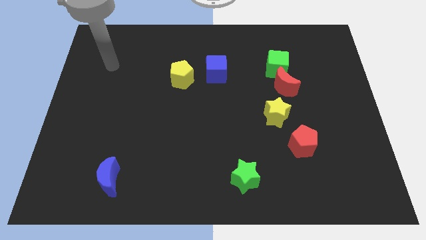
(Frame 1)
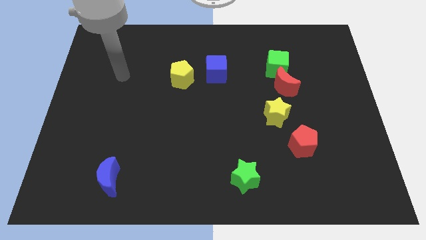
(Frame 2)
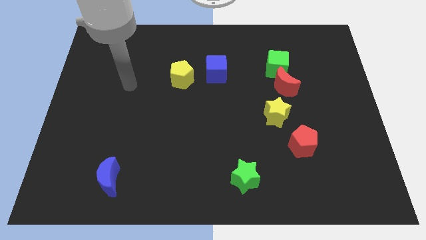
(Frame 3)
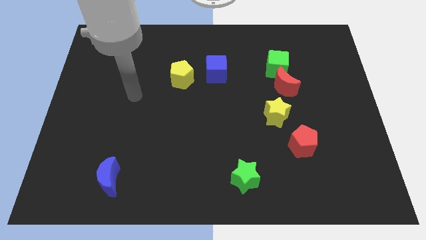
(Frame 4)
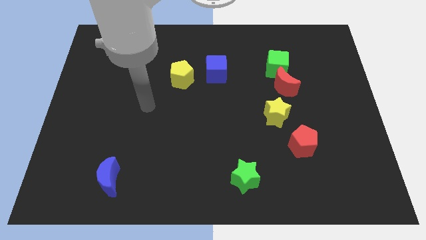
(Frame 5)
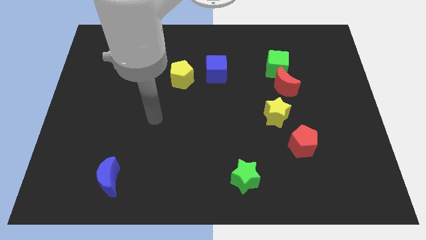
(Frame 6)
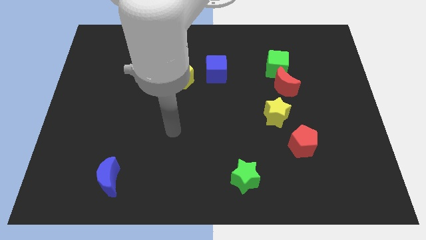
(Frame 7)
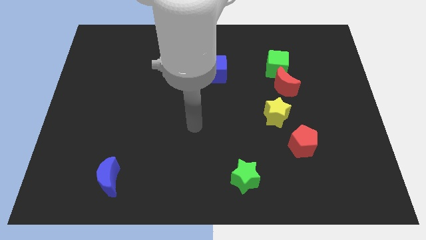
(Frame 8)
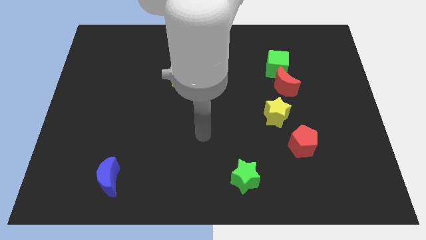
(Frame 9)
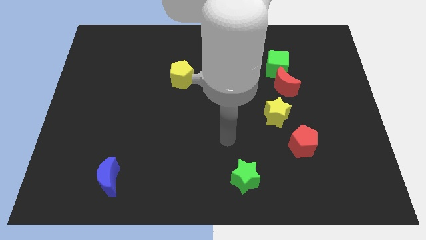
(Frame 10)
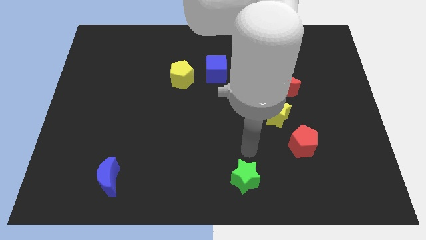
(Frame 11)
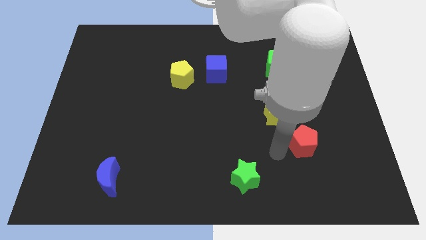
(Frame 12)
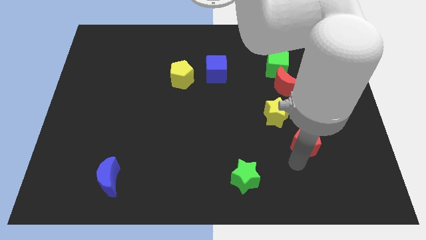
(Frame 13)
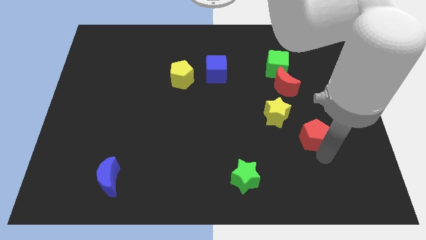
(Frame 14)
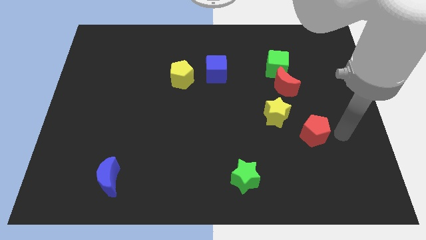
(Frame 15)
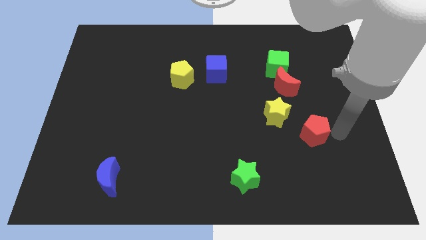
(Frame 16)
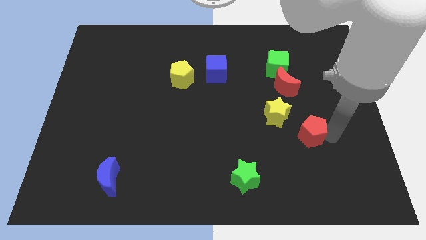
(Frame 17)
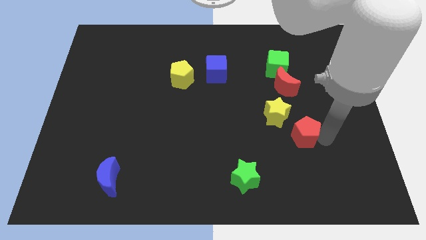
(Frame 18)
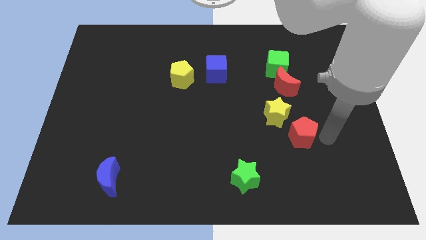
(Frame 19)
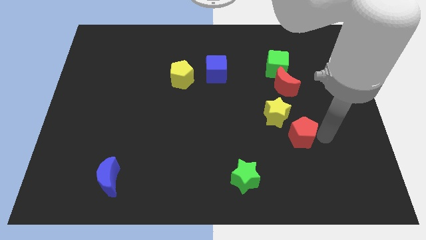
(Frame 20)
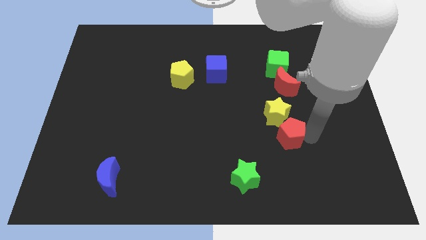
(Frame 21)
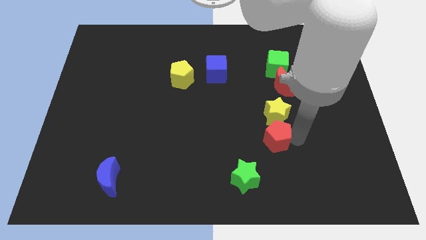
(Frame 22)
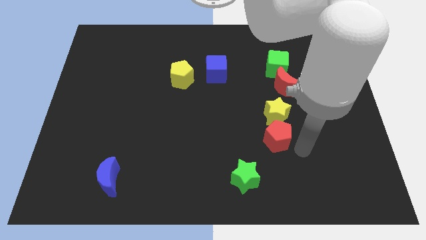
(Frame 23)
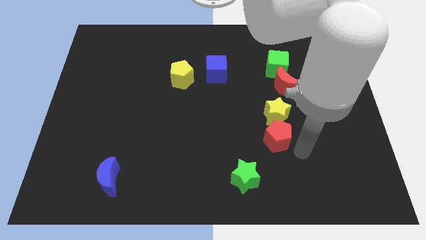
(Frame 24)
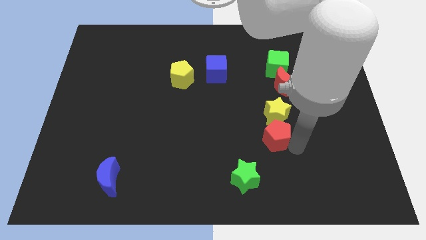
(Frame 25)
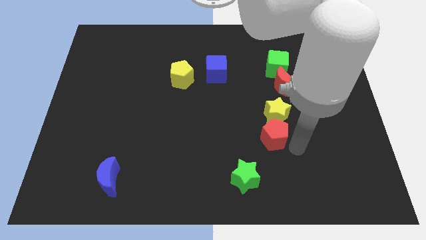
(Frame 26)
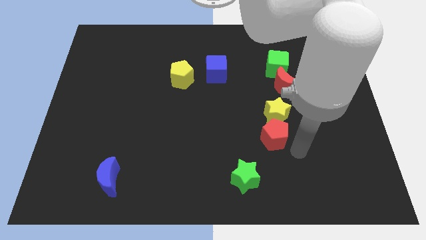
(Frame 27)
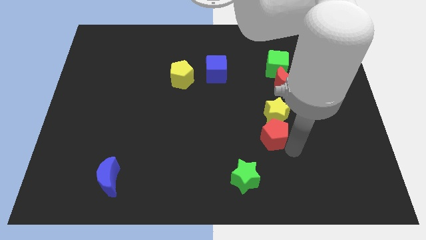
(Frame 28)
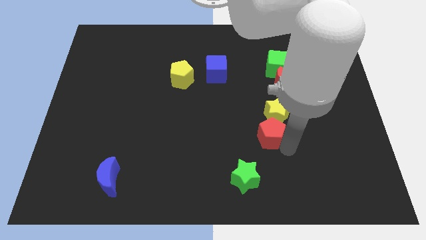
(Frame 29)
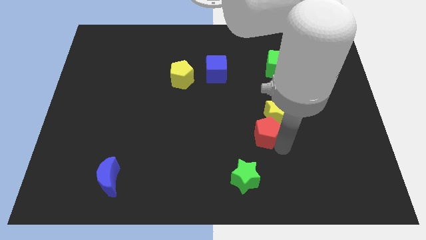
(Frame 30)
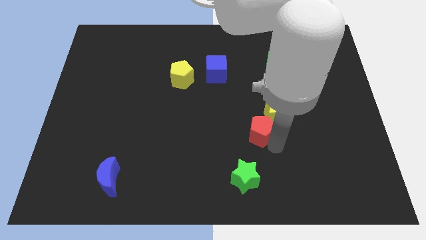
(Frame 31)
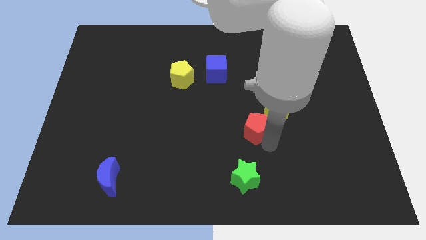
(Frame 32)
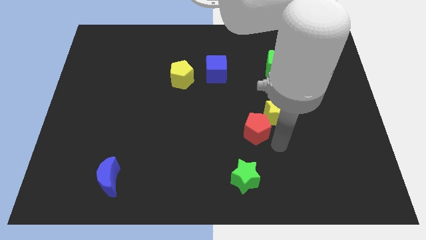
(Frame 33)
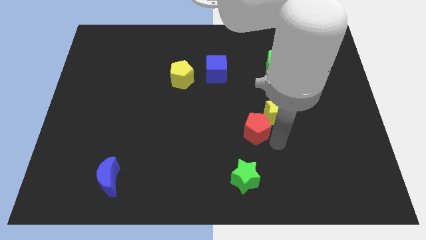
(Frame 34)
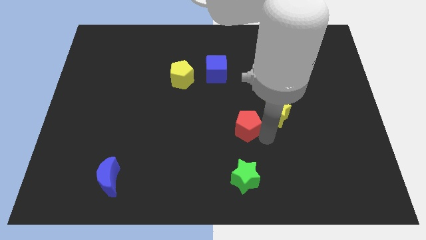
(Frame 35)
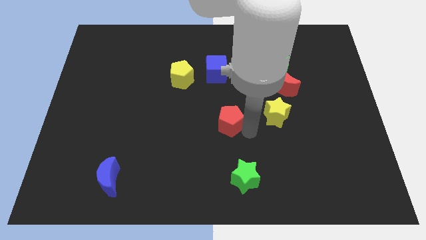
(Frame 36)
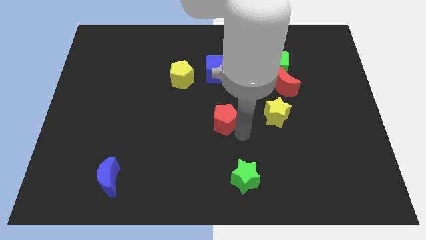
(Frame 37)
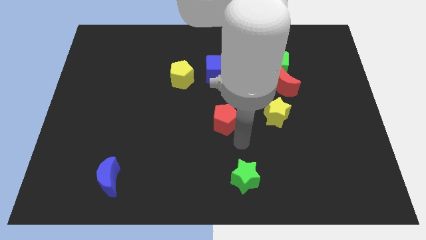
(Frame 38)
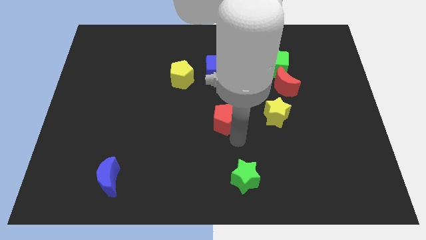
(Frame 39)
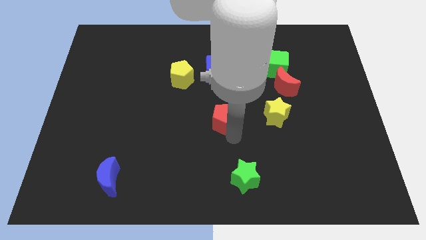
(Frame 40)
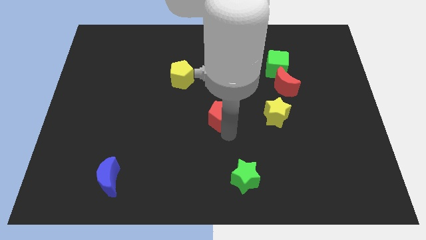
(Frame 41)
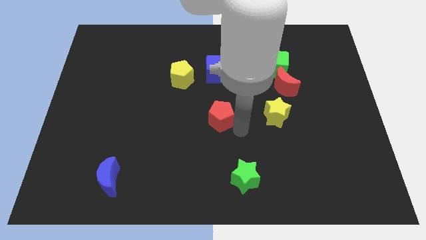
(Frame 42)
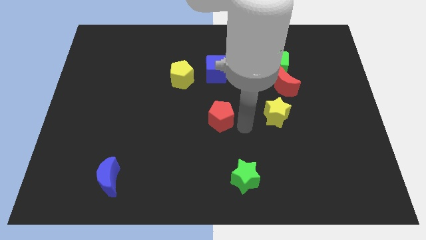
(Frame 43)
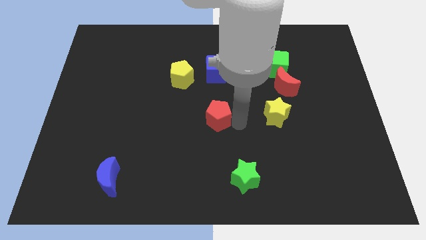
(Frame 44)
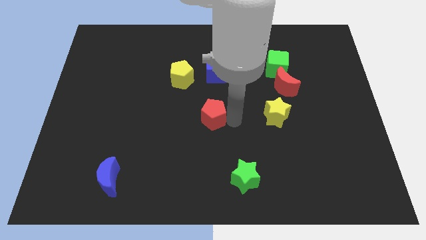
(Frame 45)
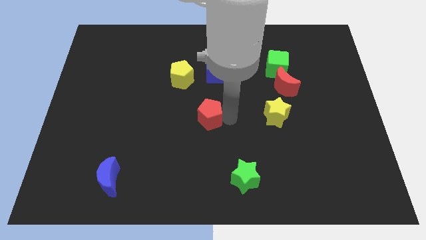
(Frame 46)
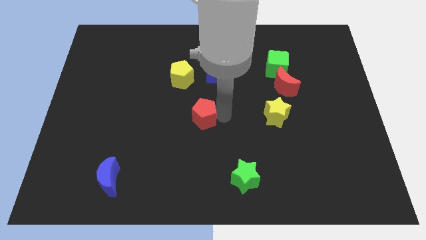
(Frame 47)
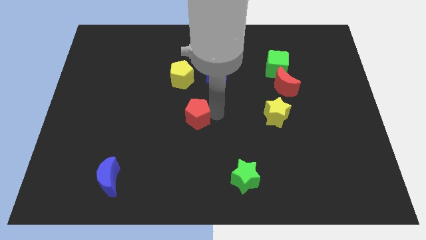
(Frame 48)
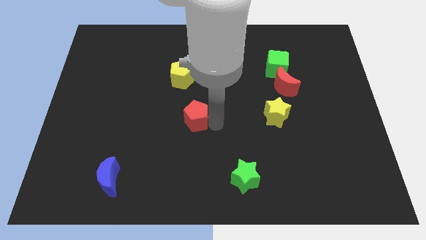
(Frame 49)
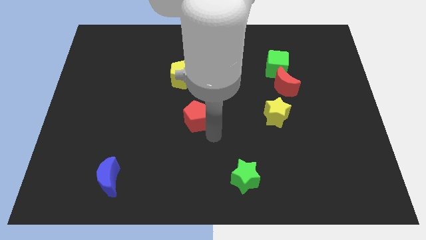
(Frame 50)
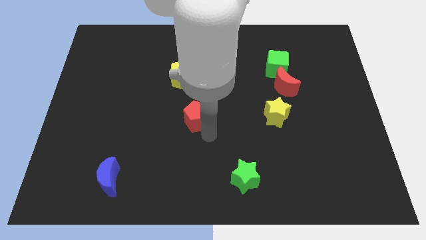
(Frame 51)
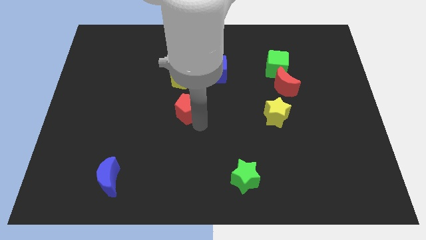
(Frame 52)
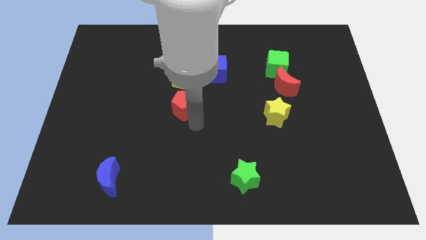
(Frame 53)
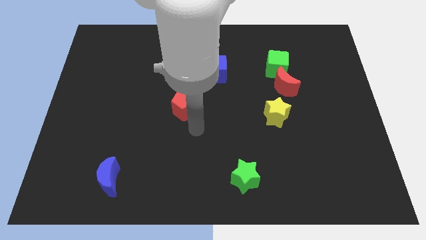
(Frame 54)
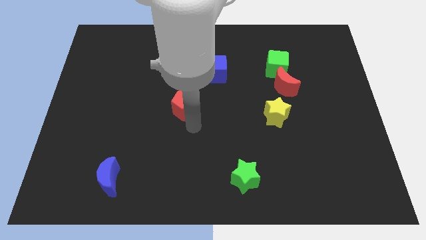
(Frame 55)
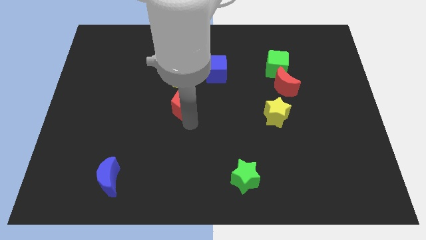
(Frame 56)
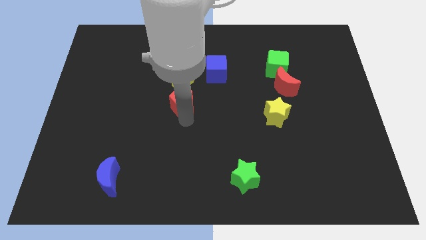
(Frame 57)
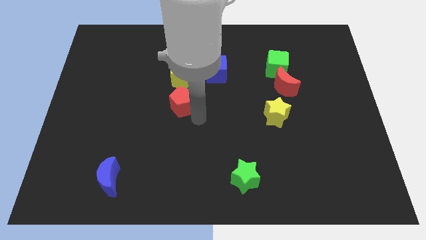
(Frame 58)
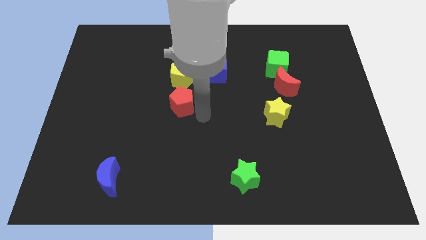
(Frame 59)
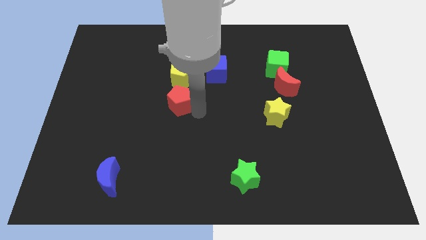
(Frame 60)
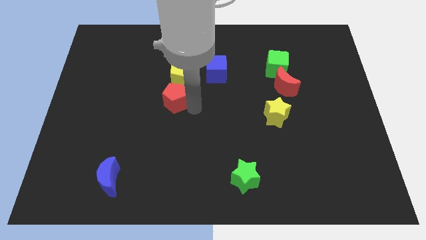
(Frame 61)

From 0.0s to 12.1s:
push the red pentagon diagonally down and to the left of the yellow pentagon

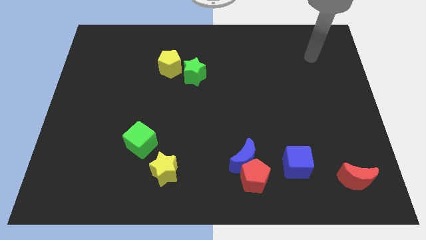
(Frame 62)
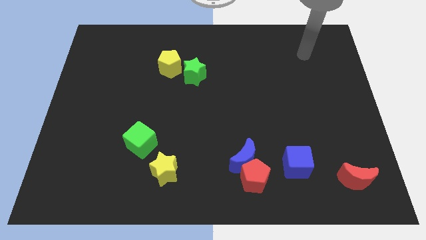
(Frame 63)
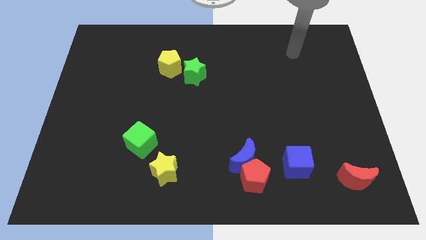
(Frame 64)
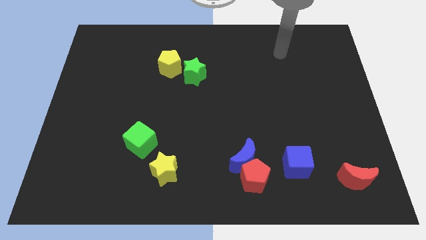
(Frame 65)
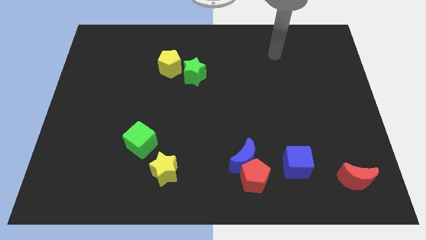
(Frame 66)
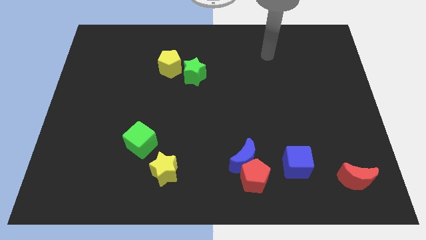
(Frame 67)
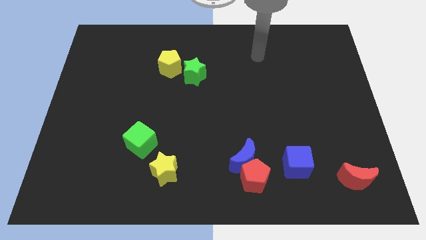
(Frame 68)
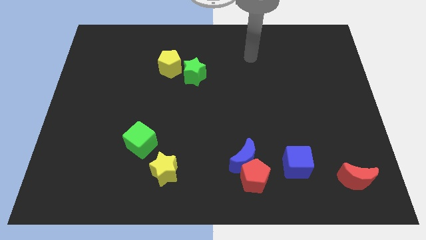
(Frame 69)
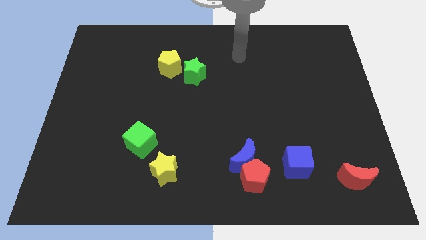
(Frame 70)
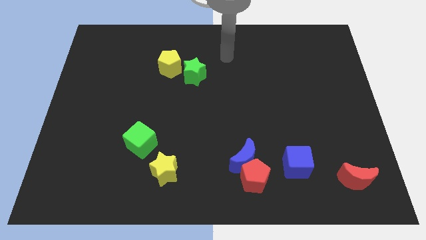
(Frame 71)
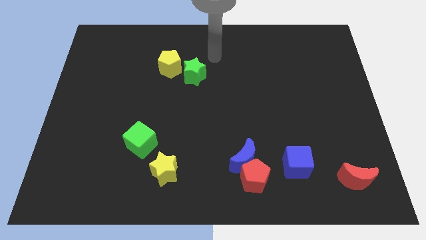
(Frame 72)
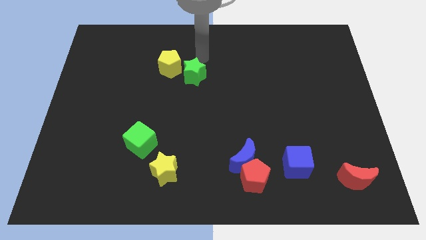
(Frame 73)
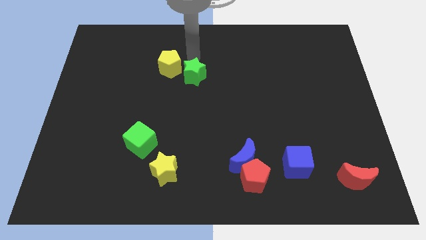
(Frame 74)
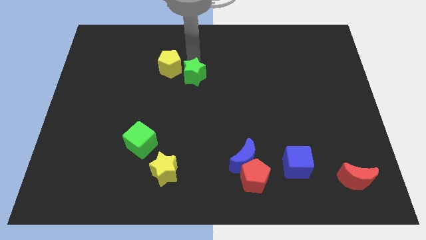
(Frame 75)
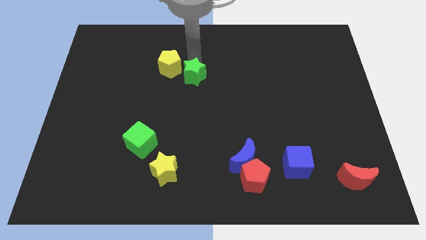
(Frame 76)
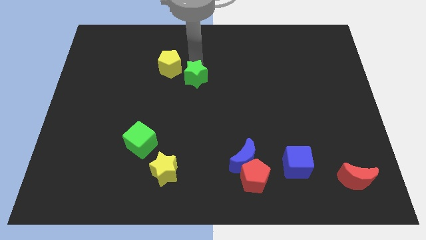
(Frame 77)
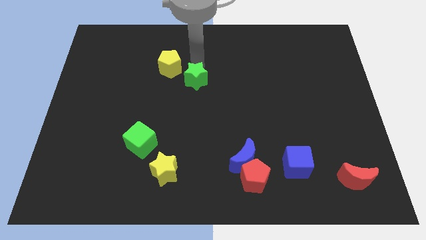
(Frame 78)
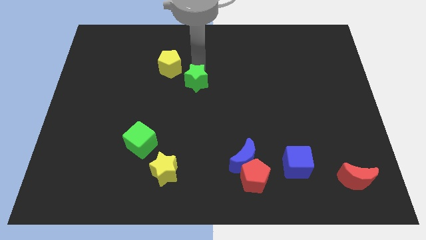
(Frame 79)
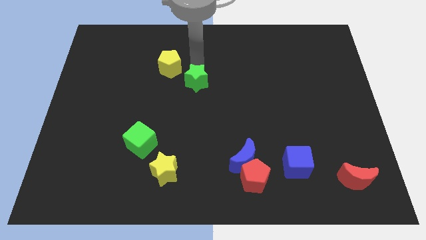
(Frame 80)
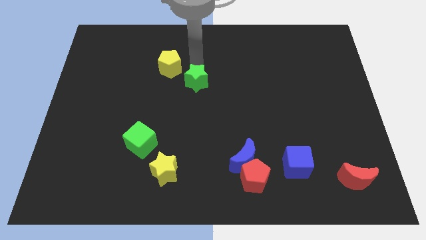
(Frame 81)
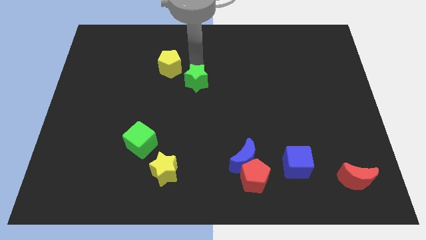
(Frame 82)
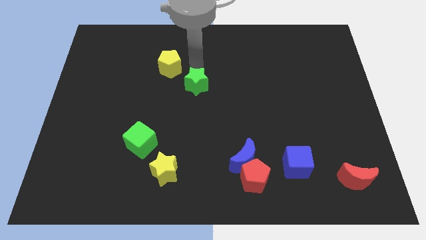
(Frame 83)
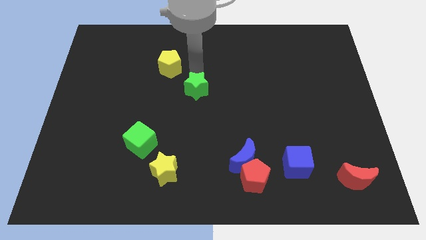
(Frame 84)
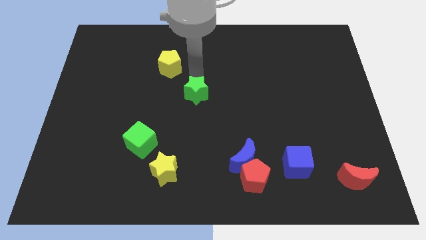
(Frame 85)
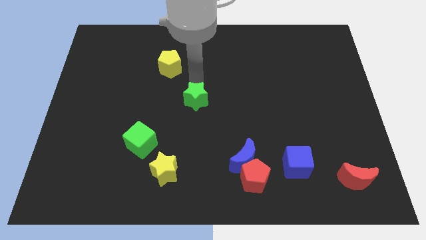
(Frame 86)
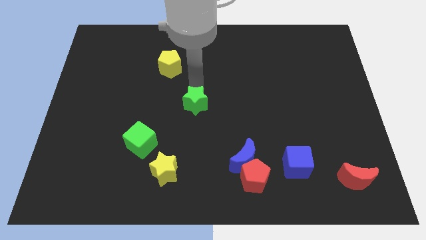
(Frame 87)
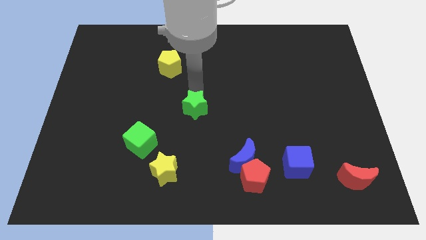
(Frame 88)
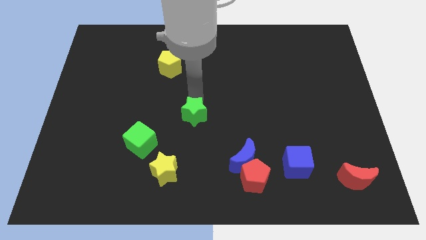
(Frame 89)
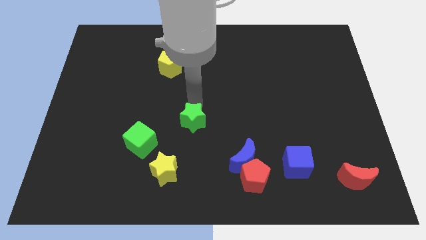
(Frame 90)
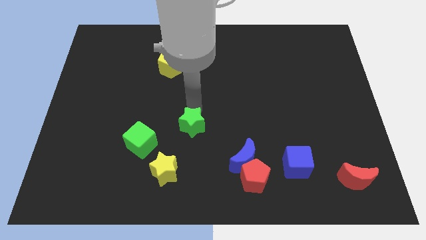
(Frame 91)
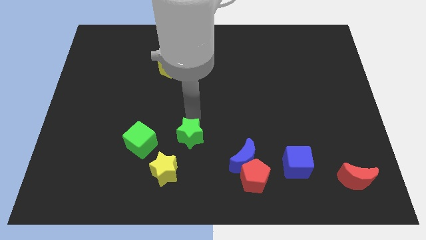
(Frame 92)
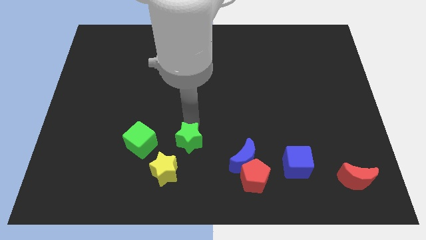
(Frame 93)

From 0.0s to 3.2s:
push the green star to the left side of the blue moon
